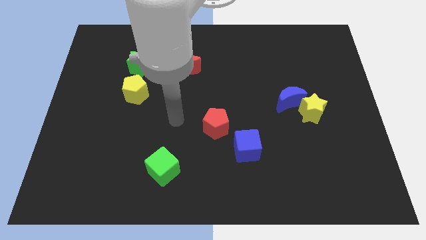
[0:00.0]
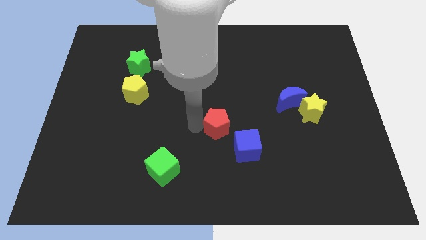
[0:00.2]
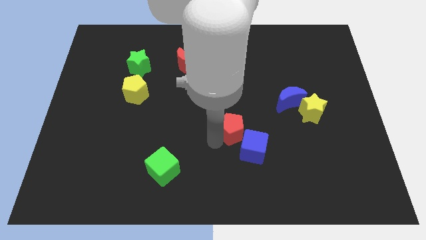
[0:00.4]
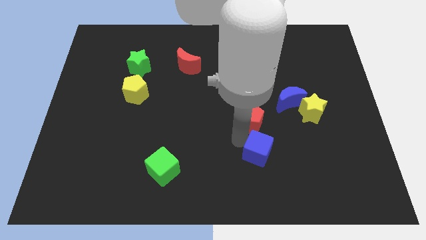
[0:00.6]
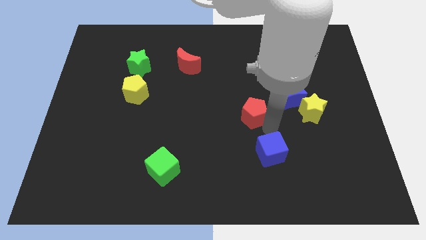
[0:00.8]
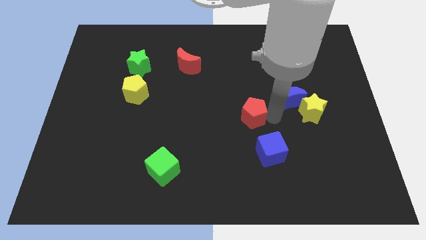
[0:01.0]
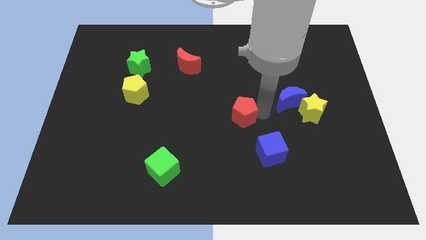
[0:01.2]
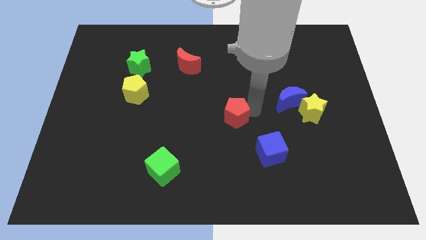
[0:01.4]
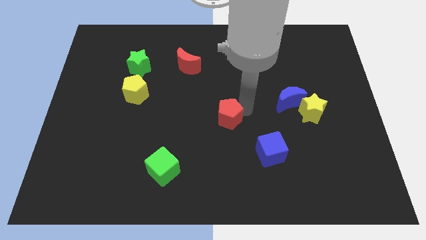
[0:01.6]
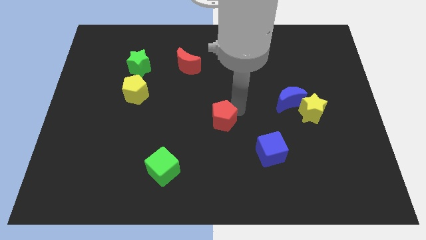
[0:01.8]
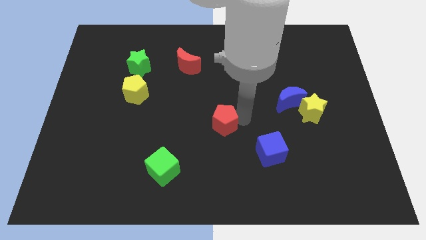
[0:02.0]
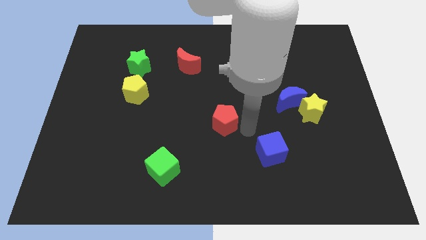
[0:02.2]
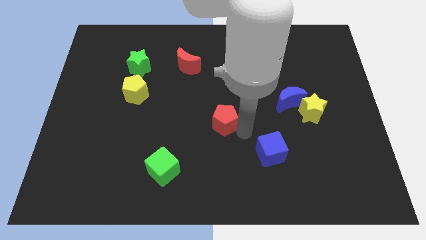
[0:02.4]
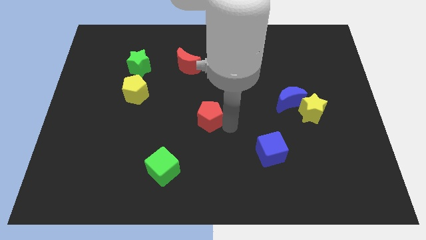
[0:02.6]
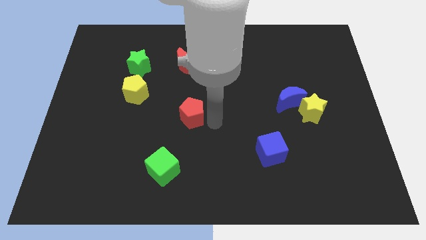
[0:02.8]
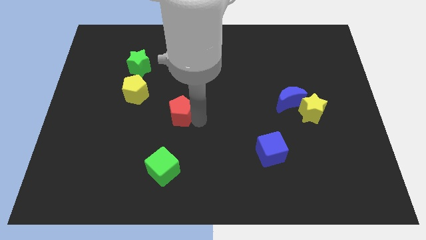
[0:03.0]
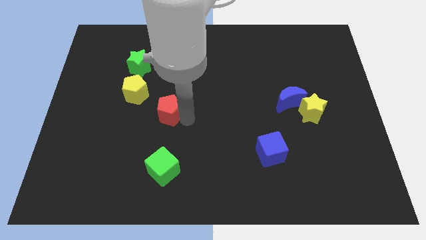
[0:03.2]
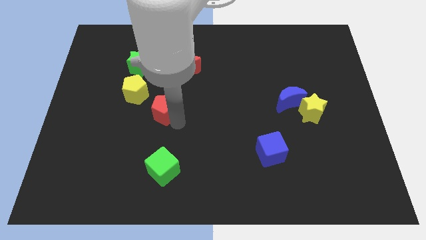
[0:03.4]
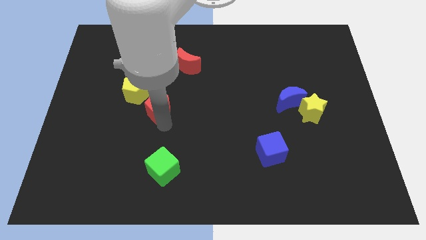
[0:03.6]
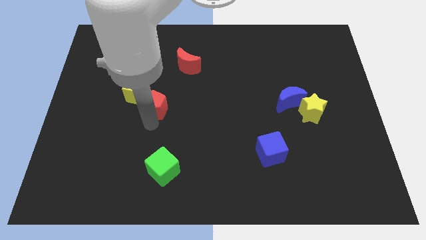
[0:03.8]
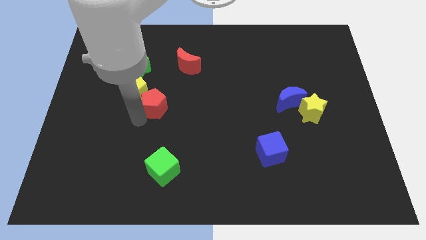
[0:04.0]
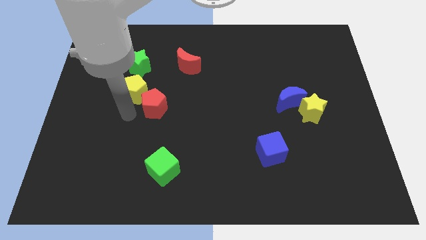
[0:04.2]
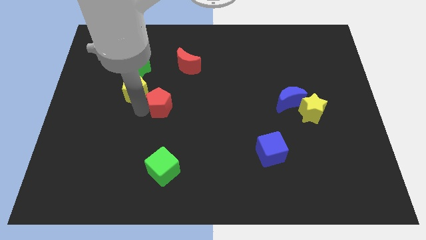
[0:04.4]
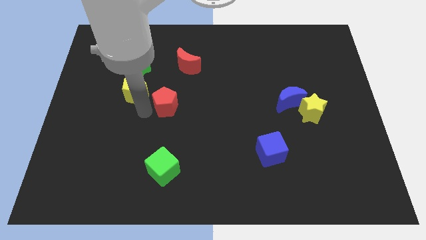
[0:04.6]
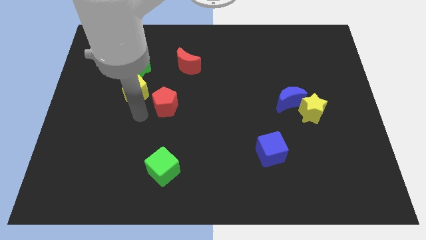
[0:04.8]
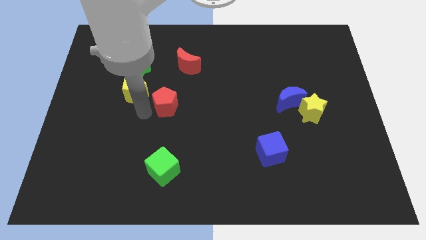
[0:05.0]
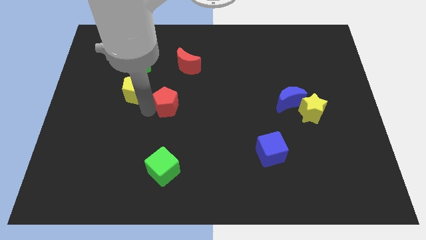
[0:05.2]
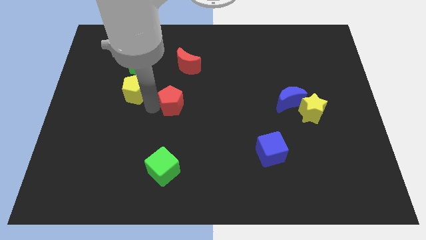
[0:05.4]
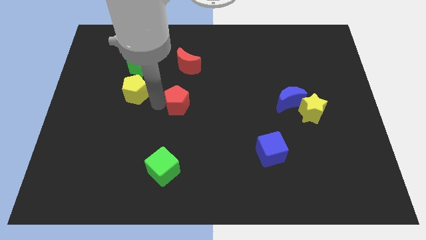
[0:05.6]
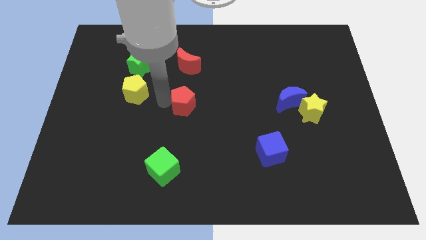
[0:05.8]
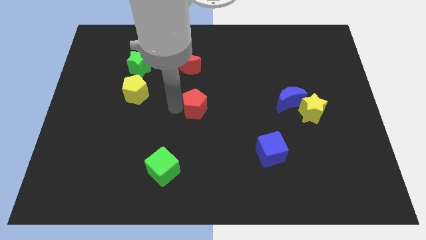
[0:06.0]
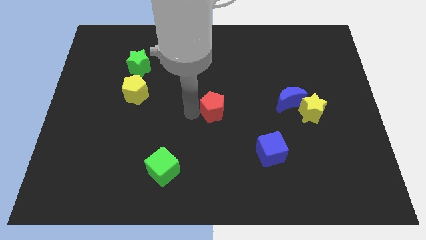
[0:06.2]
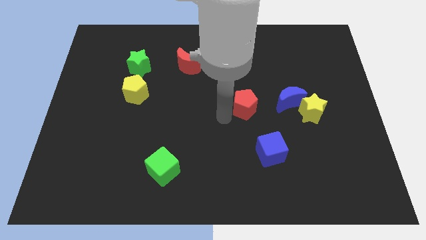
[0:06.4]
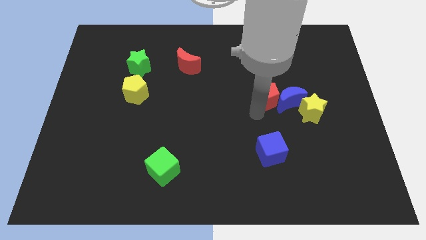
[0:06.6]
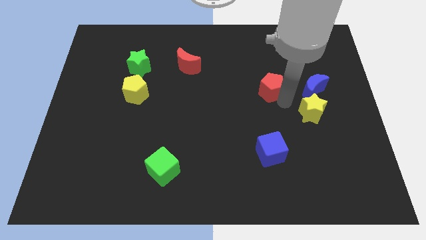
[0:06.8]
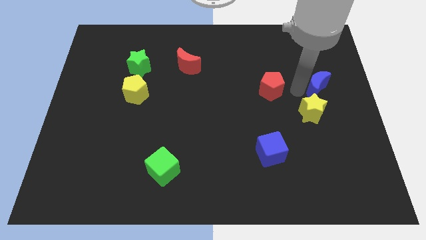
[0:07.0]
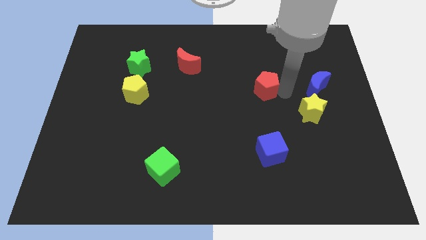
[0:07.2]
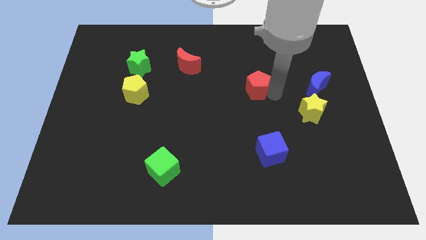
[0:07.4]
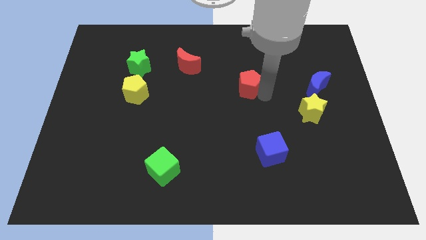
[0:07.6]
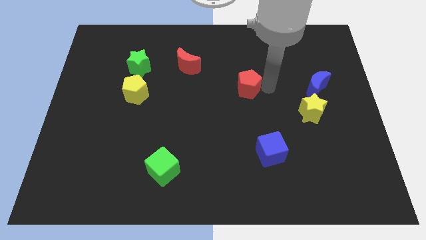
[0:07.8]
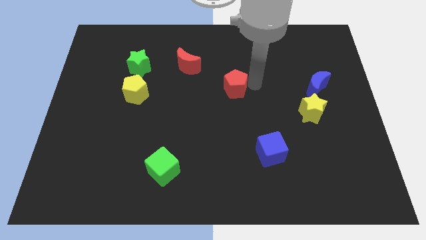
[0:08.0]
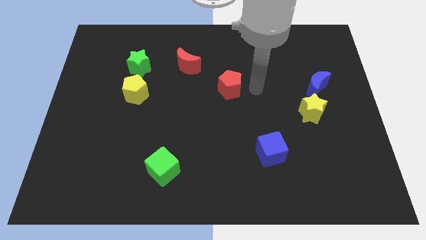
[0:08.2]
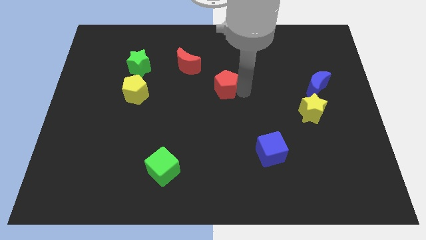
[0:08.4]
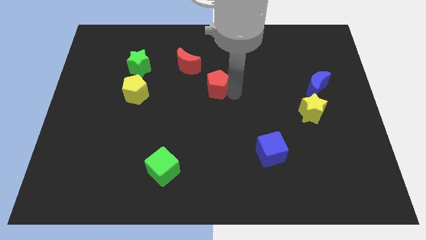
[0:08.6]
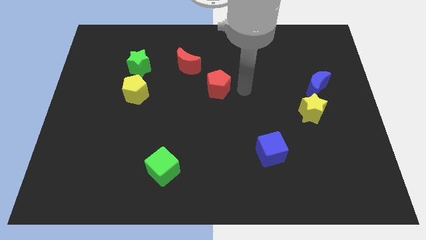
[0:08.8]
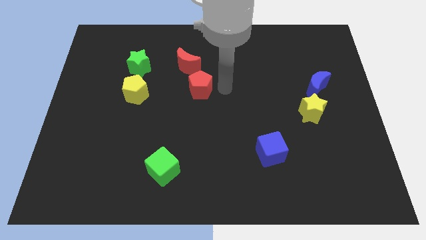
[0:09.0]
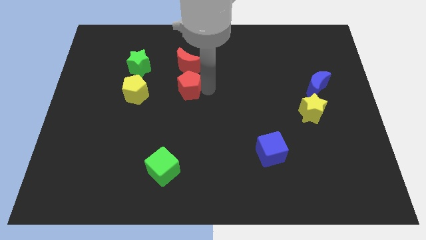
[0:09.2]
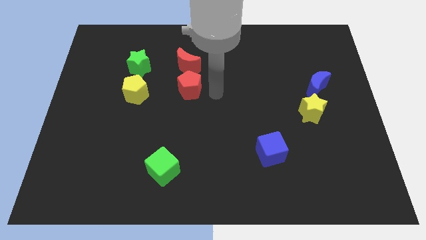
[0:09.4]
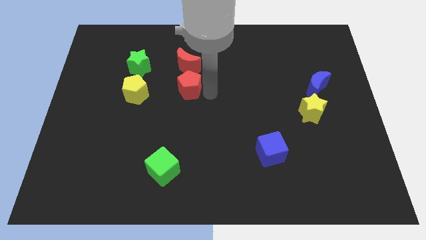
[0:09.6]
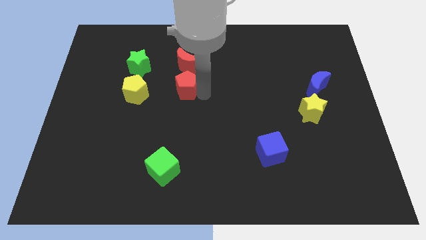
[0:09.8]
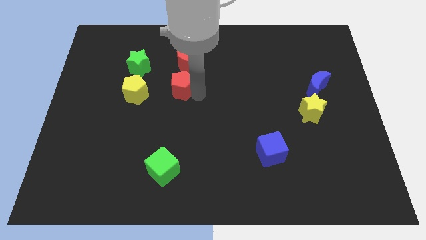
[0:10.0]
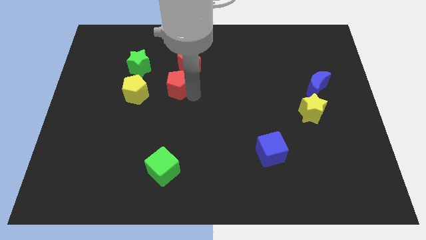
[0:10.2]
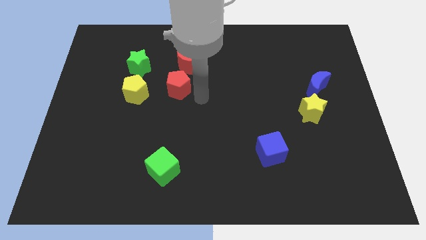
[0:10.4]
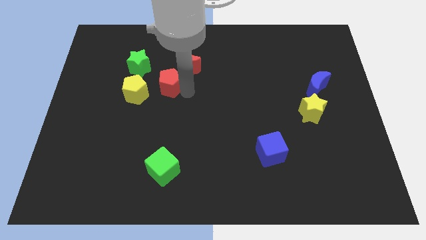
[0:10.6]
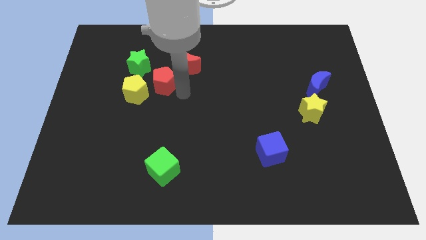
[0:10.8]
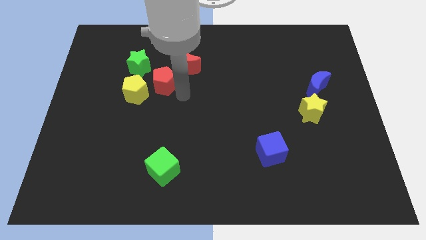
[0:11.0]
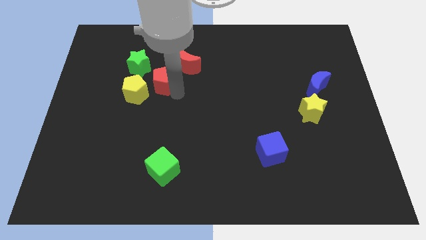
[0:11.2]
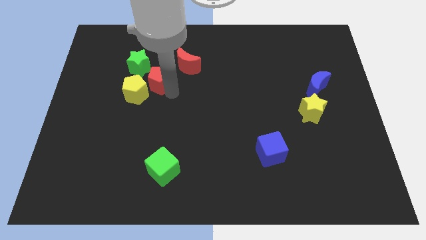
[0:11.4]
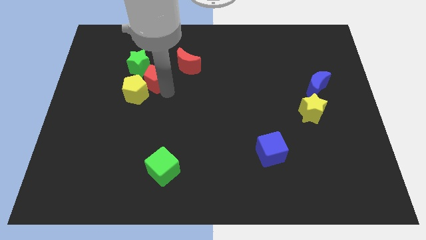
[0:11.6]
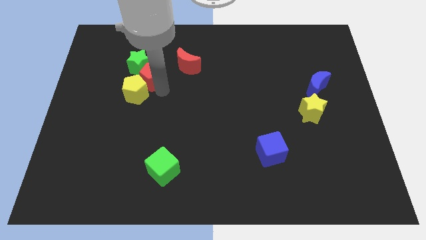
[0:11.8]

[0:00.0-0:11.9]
move the red pentagon next to the green star
